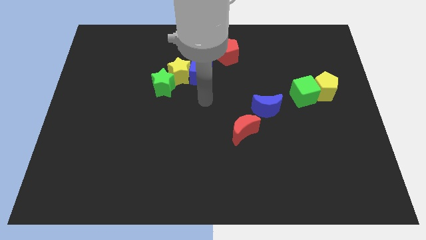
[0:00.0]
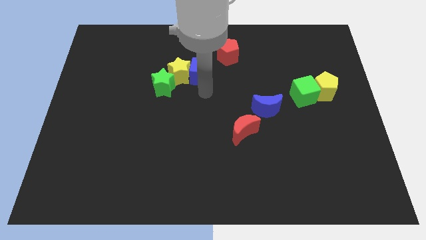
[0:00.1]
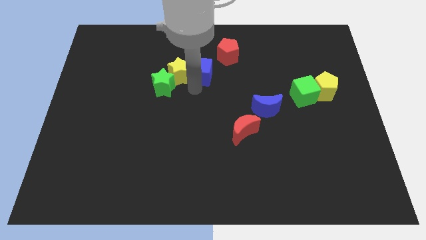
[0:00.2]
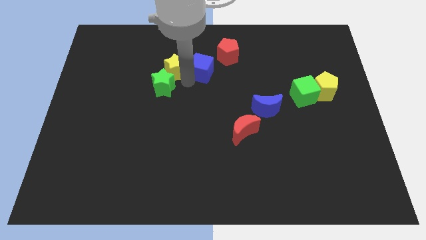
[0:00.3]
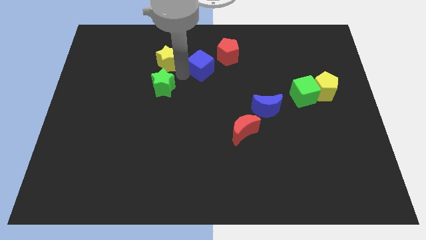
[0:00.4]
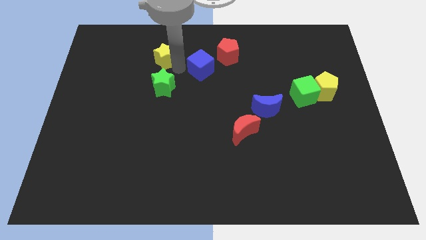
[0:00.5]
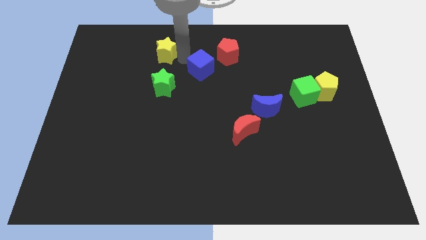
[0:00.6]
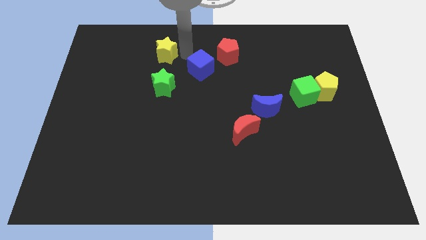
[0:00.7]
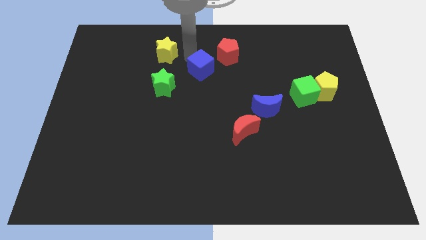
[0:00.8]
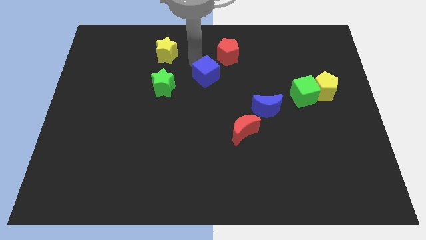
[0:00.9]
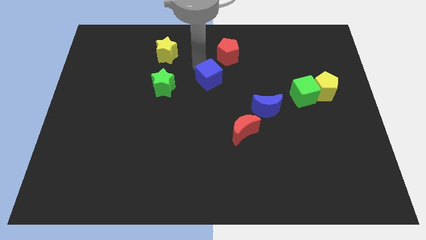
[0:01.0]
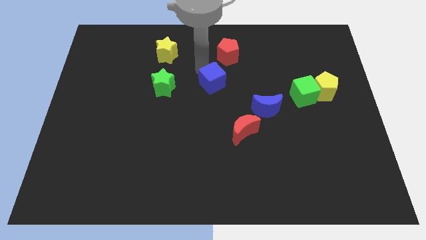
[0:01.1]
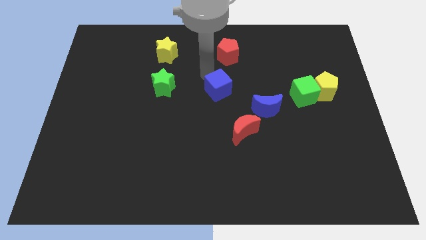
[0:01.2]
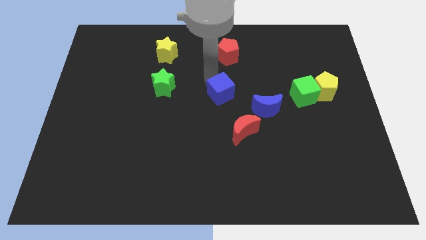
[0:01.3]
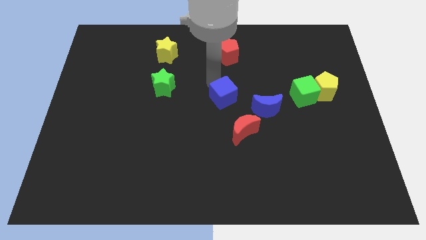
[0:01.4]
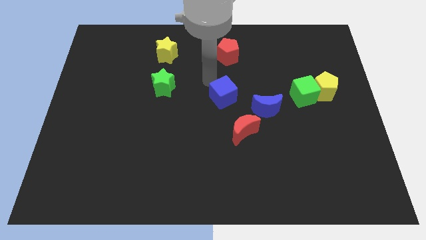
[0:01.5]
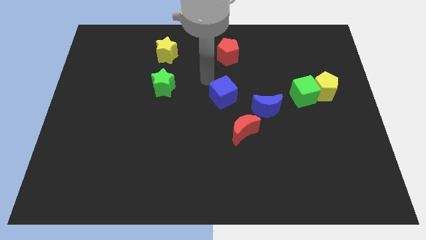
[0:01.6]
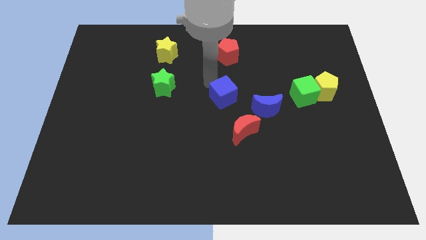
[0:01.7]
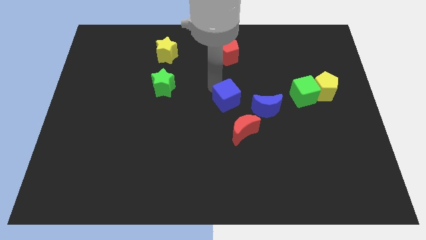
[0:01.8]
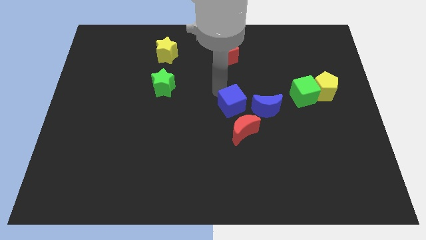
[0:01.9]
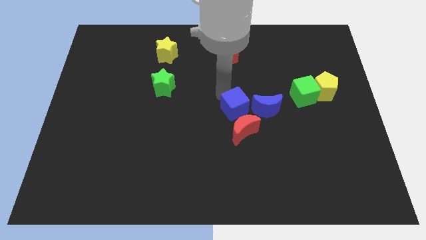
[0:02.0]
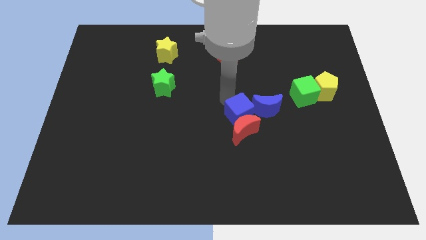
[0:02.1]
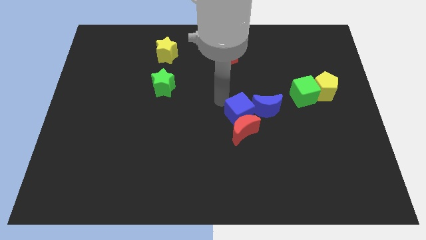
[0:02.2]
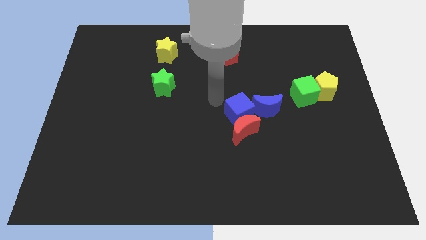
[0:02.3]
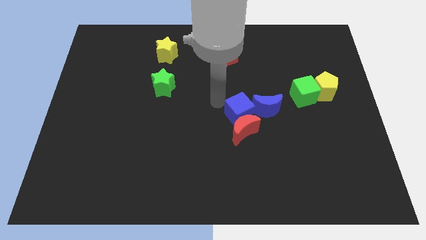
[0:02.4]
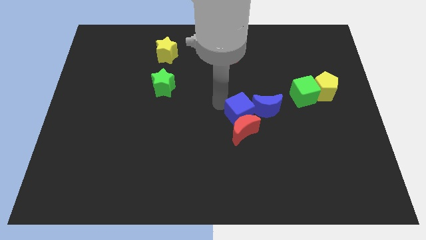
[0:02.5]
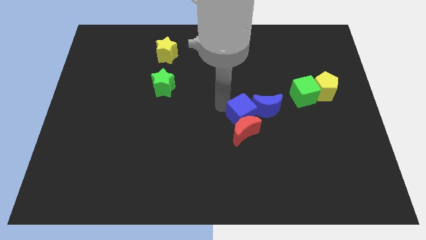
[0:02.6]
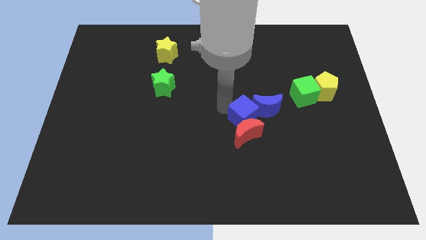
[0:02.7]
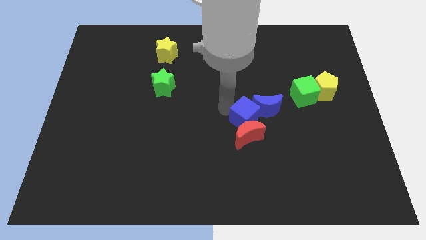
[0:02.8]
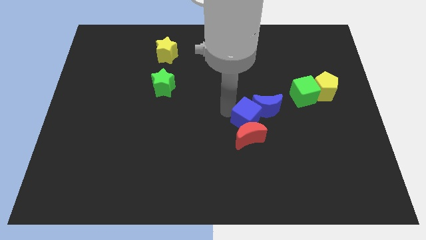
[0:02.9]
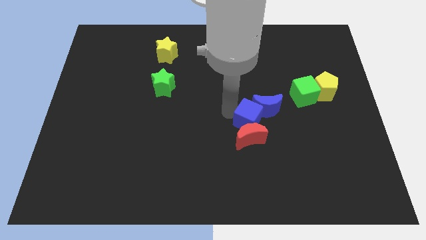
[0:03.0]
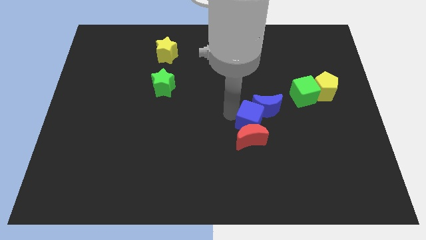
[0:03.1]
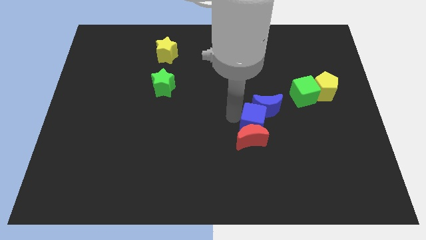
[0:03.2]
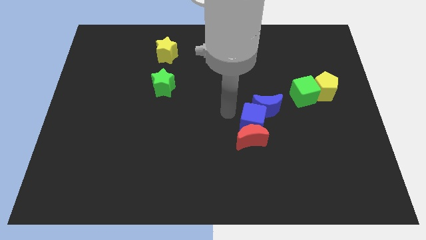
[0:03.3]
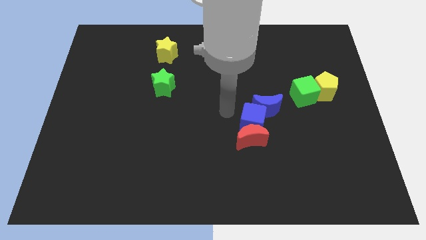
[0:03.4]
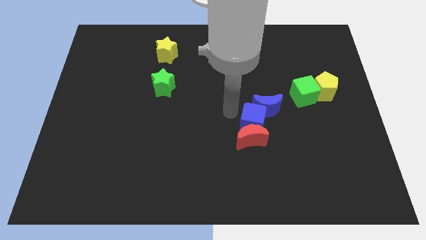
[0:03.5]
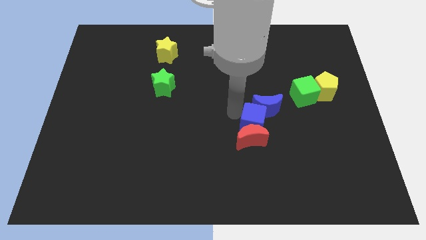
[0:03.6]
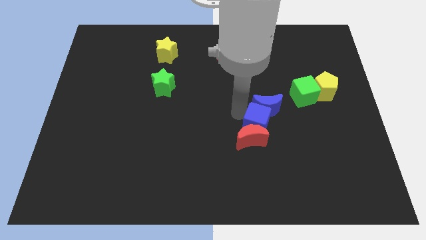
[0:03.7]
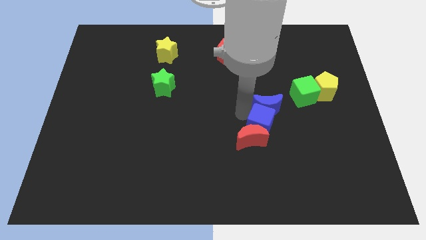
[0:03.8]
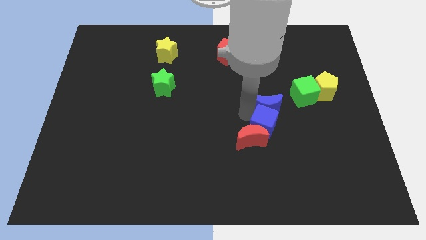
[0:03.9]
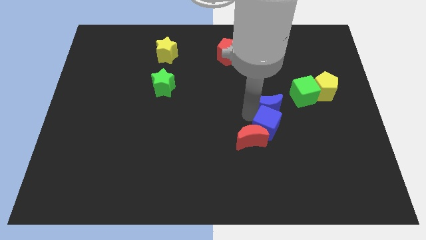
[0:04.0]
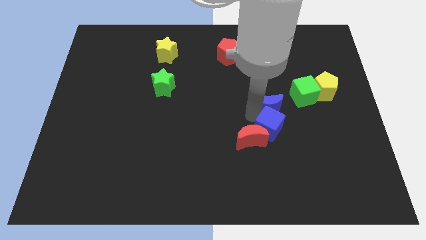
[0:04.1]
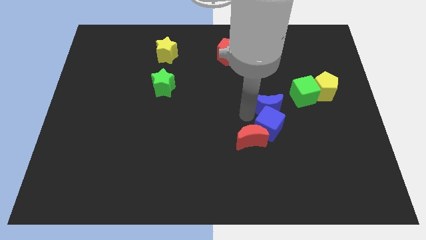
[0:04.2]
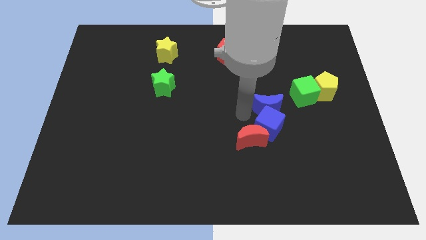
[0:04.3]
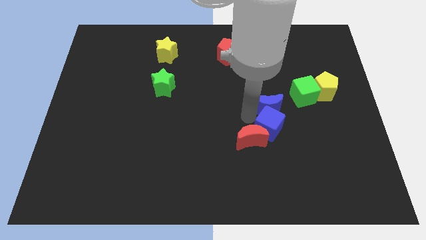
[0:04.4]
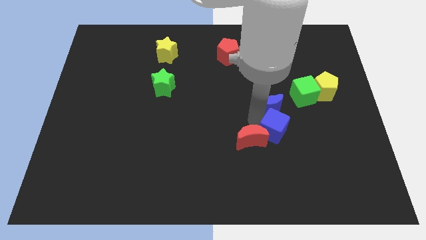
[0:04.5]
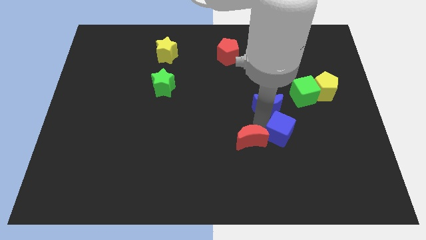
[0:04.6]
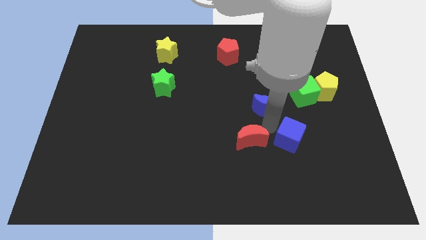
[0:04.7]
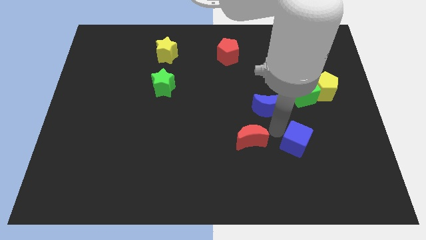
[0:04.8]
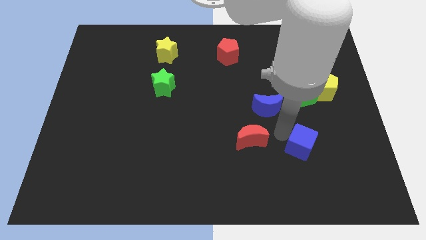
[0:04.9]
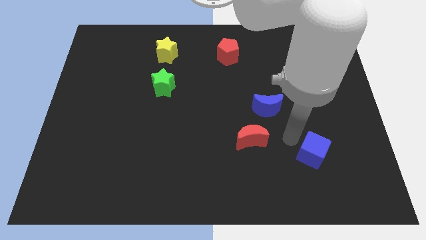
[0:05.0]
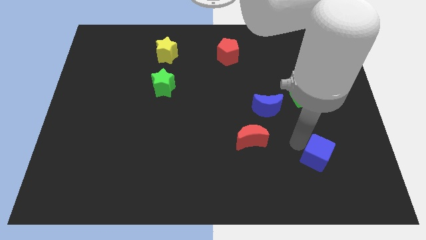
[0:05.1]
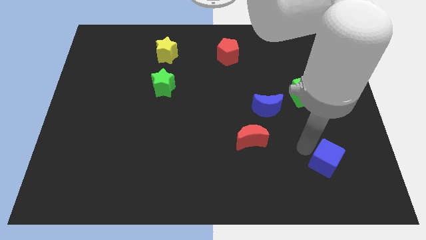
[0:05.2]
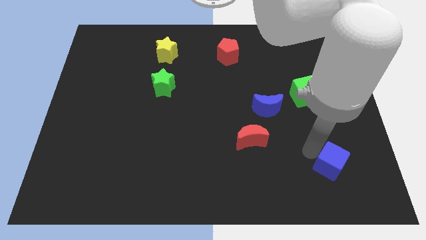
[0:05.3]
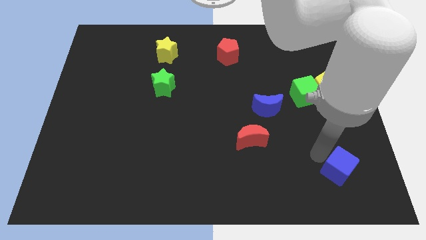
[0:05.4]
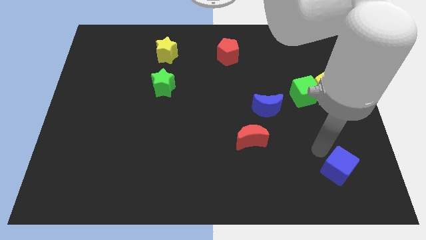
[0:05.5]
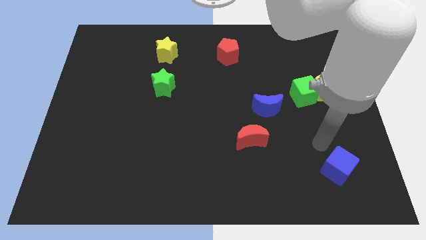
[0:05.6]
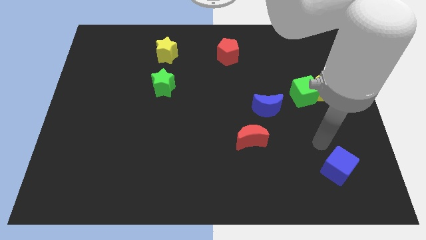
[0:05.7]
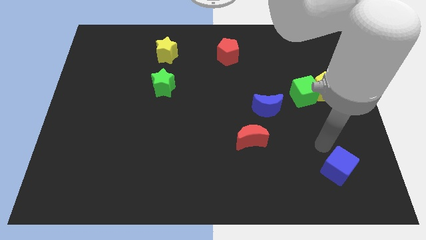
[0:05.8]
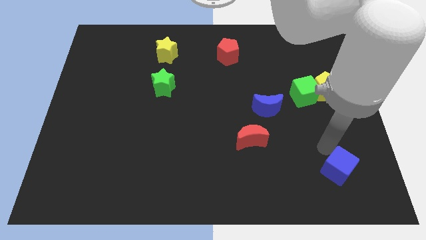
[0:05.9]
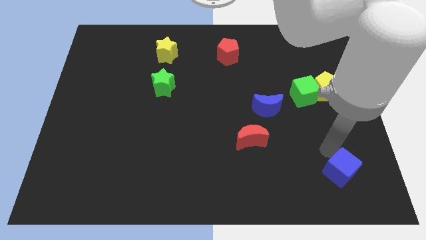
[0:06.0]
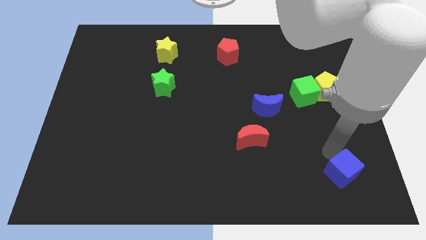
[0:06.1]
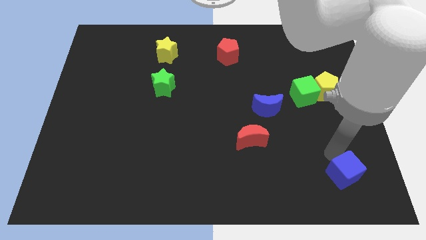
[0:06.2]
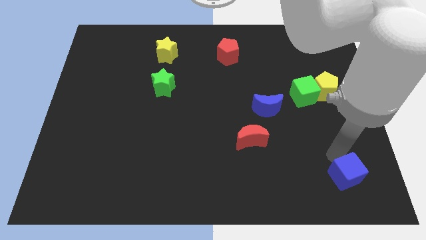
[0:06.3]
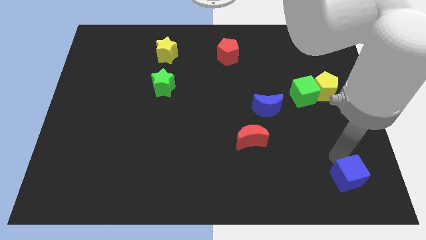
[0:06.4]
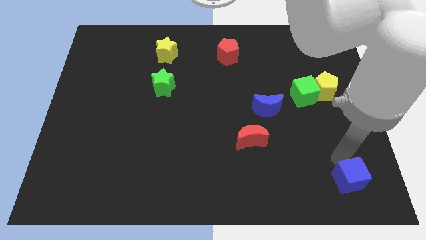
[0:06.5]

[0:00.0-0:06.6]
slide the blue cube to the bottom right

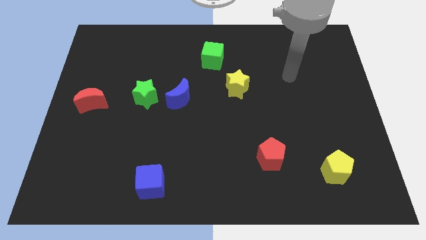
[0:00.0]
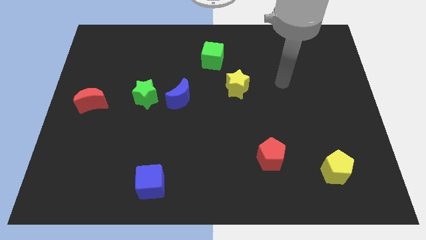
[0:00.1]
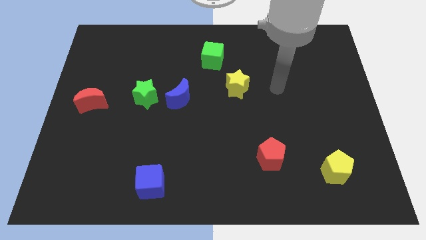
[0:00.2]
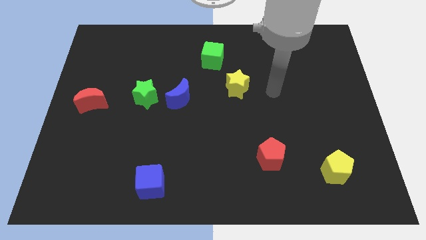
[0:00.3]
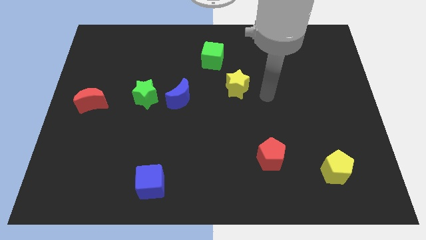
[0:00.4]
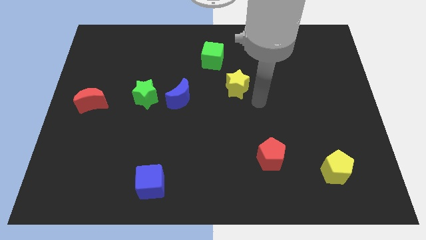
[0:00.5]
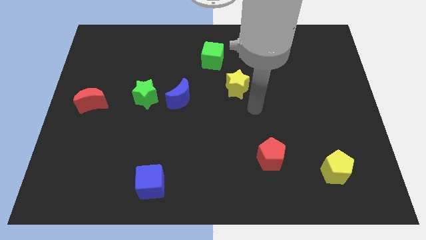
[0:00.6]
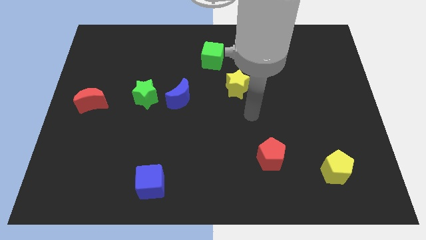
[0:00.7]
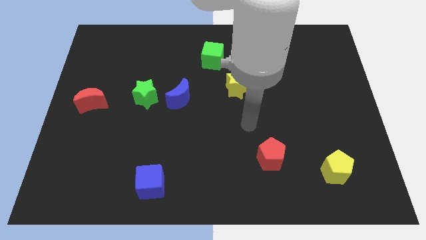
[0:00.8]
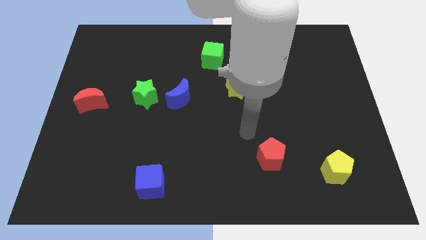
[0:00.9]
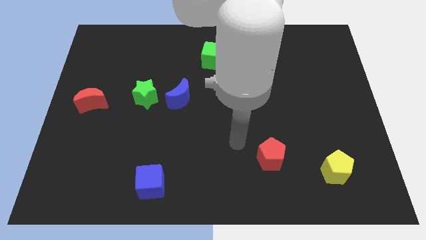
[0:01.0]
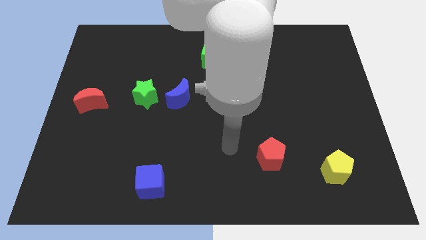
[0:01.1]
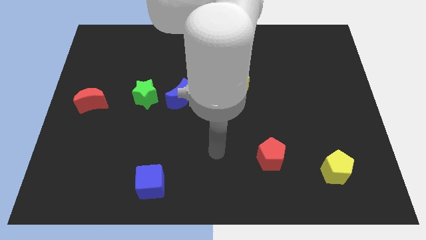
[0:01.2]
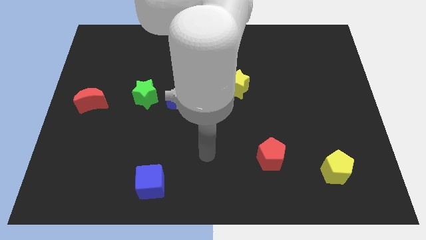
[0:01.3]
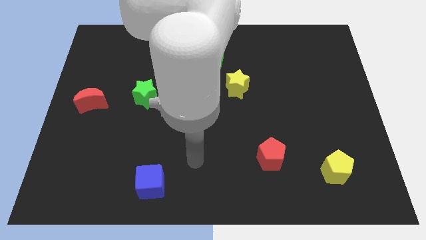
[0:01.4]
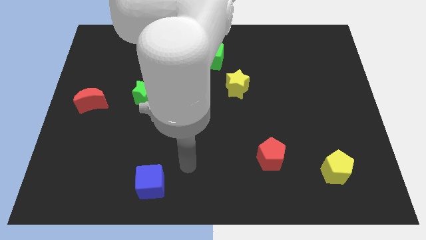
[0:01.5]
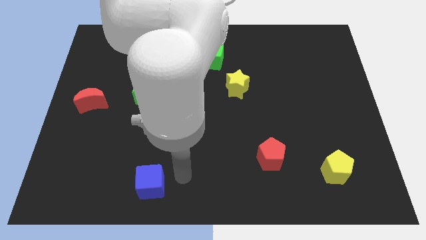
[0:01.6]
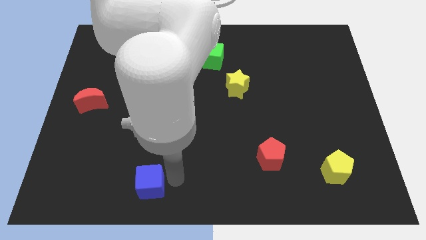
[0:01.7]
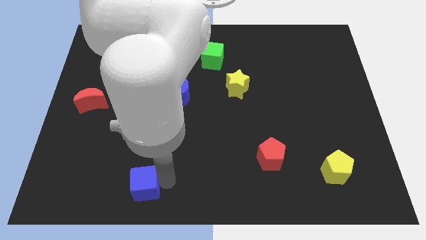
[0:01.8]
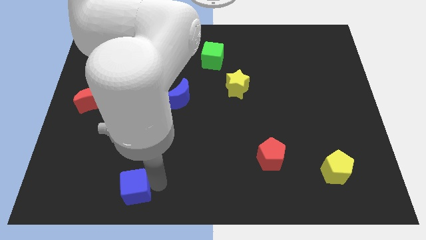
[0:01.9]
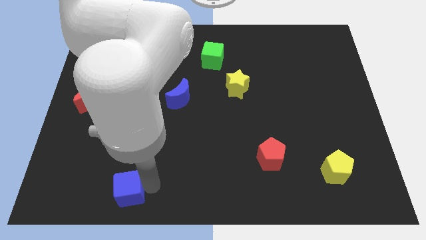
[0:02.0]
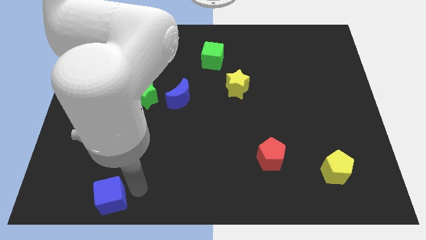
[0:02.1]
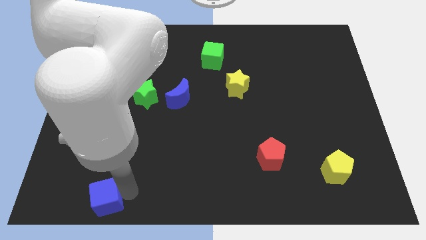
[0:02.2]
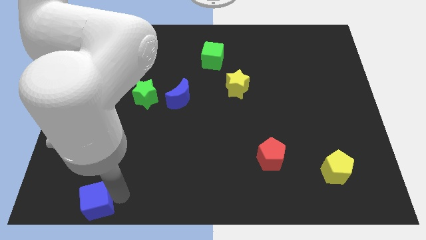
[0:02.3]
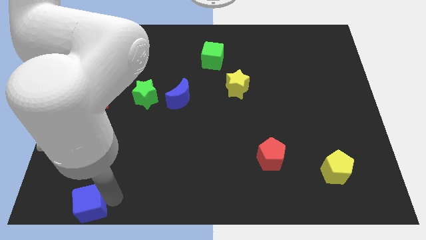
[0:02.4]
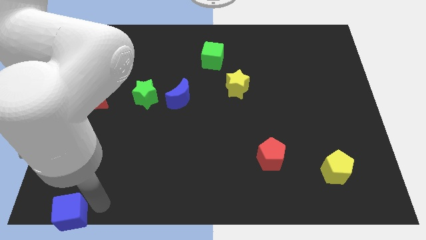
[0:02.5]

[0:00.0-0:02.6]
move the blue cube to the bottom left
